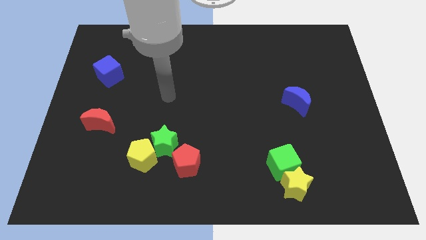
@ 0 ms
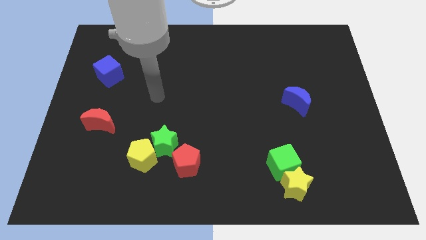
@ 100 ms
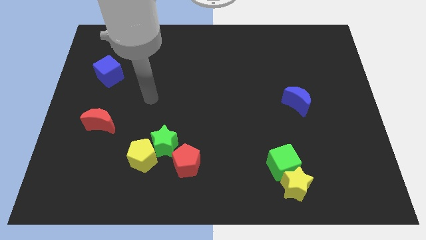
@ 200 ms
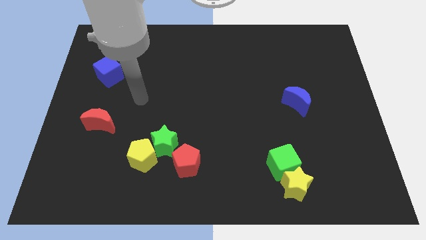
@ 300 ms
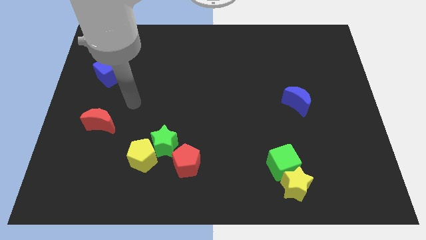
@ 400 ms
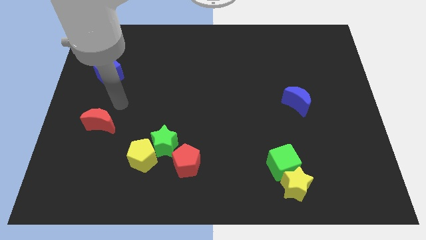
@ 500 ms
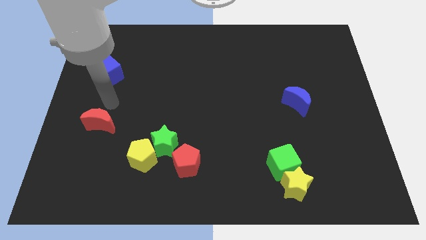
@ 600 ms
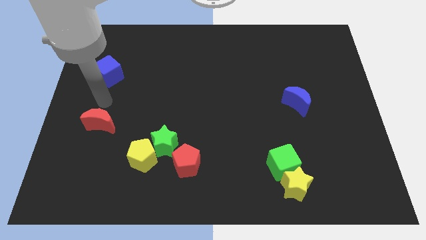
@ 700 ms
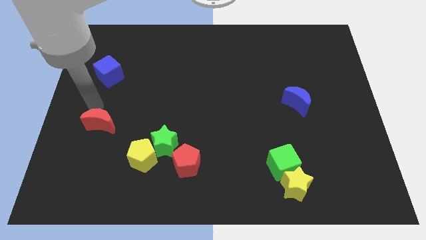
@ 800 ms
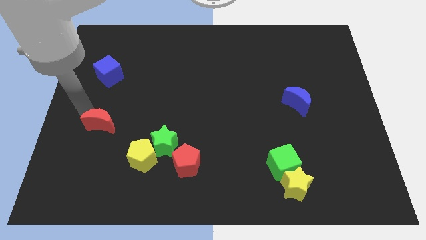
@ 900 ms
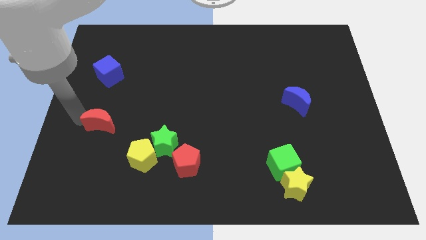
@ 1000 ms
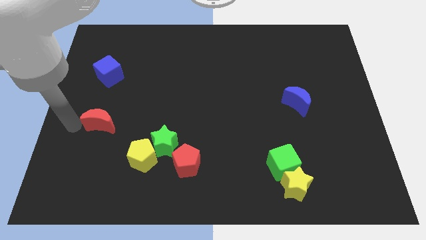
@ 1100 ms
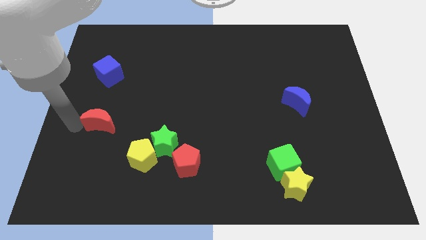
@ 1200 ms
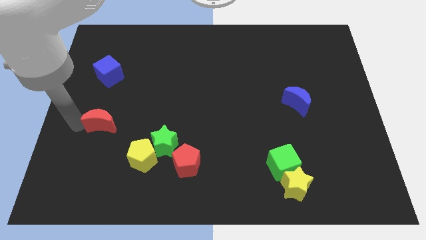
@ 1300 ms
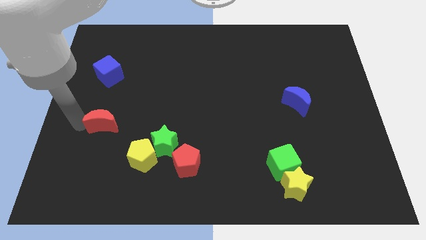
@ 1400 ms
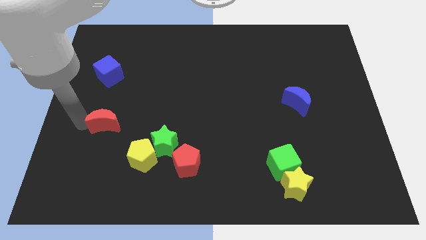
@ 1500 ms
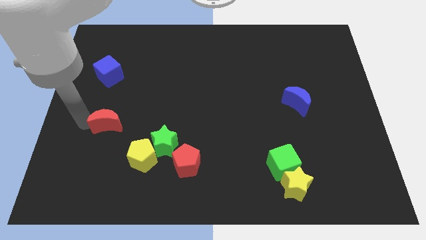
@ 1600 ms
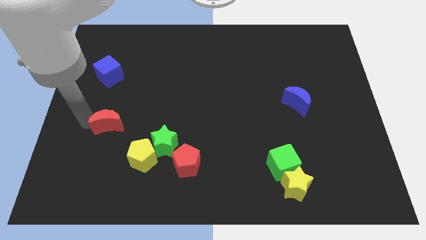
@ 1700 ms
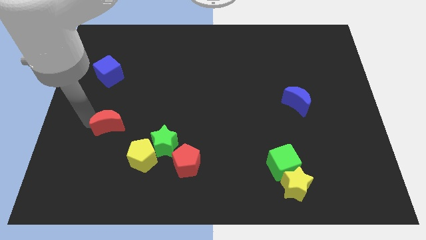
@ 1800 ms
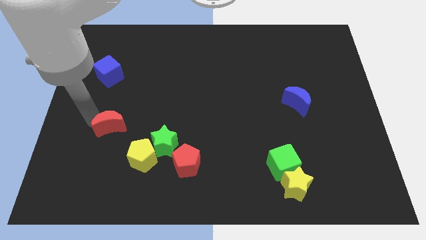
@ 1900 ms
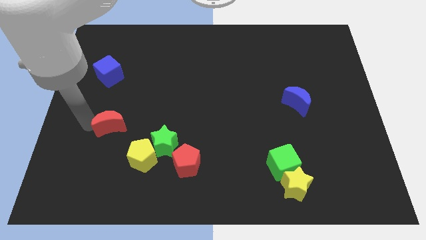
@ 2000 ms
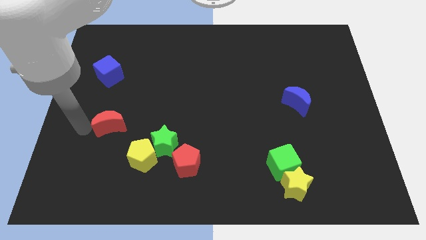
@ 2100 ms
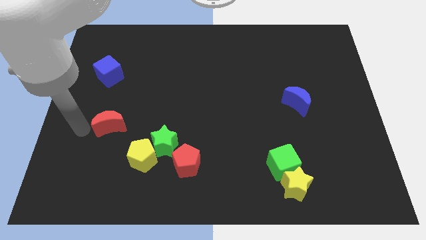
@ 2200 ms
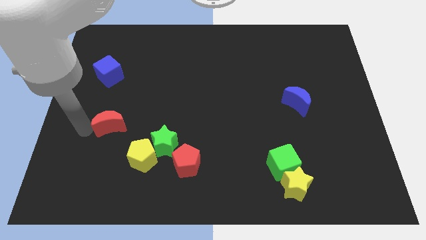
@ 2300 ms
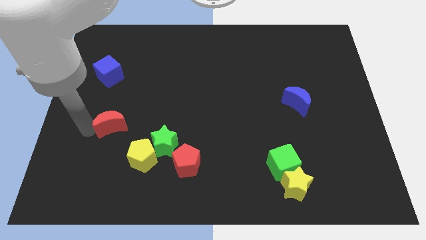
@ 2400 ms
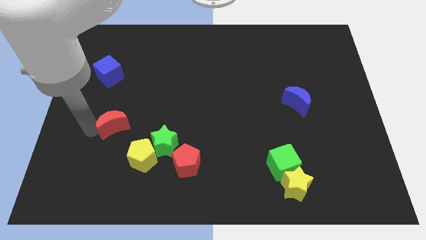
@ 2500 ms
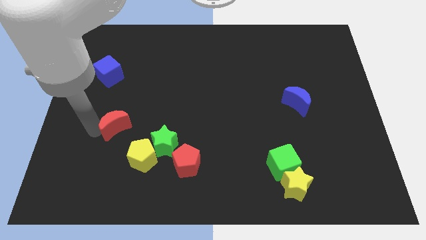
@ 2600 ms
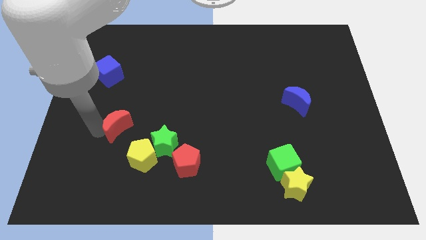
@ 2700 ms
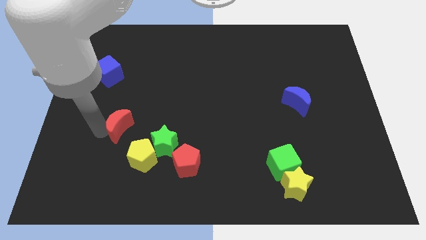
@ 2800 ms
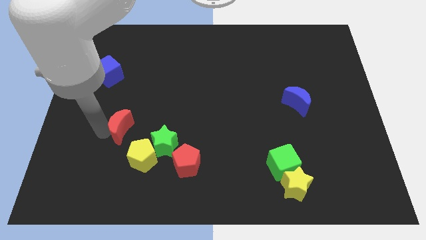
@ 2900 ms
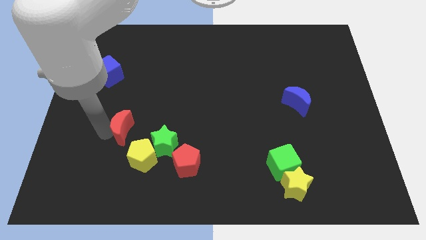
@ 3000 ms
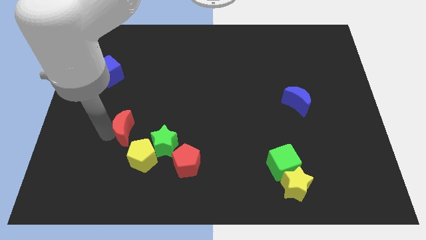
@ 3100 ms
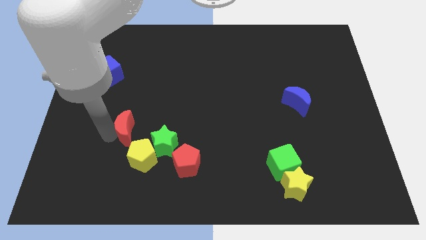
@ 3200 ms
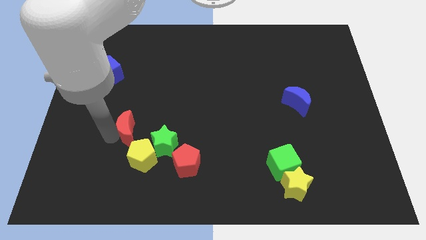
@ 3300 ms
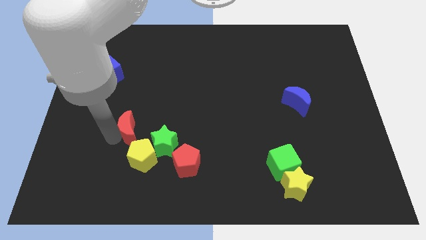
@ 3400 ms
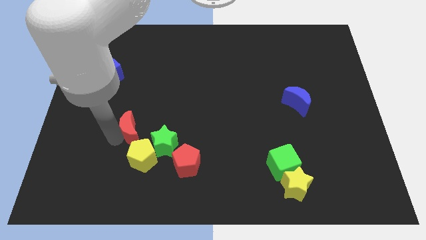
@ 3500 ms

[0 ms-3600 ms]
push the red moon to the right a bit

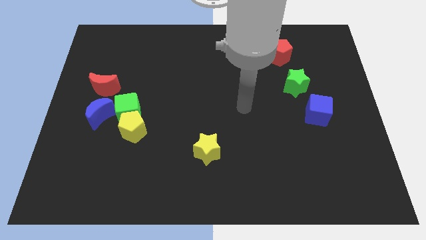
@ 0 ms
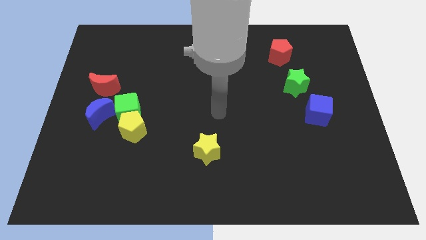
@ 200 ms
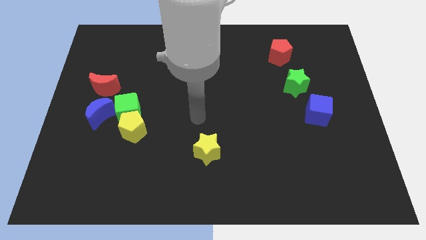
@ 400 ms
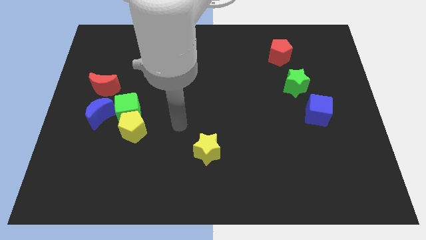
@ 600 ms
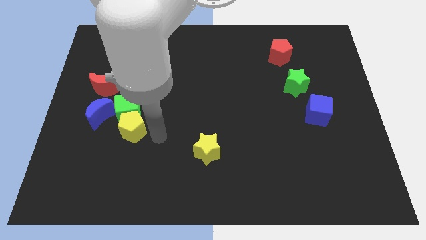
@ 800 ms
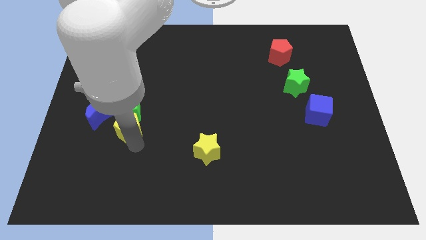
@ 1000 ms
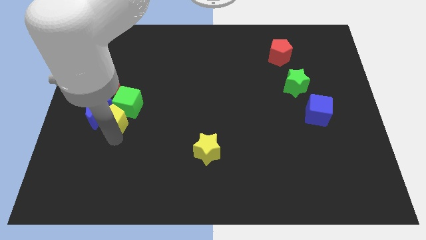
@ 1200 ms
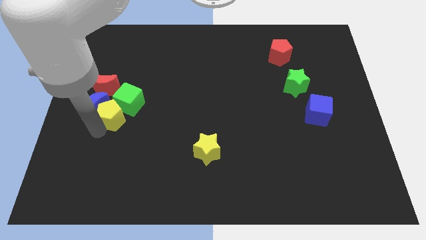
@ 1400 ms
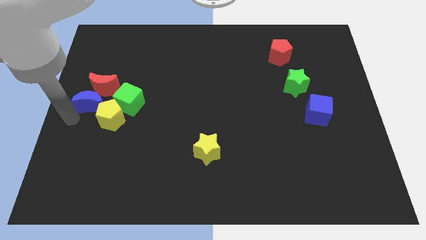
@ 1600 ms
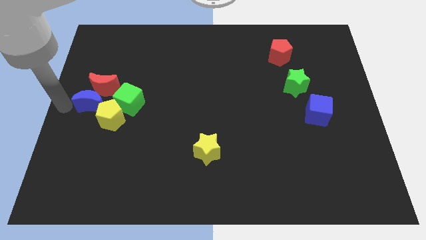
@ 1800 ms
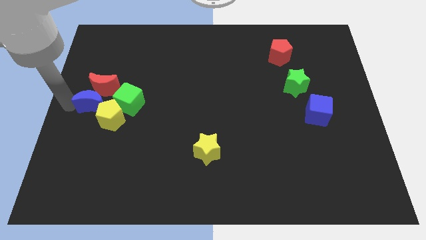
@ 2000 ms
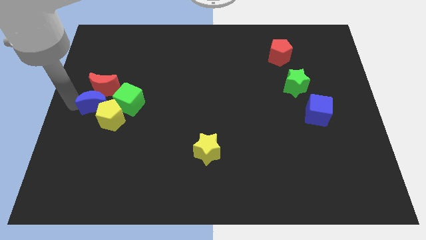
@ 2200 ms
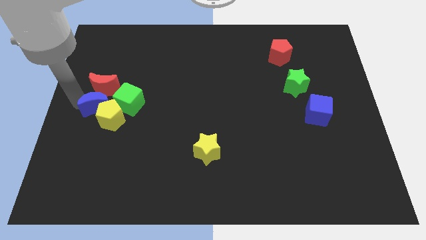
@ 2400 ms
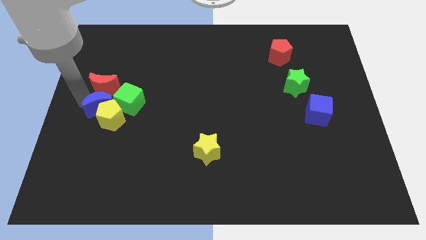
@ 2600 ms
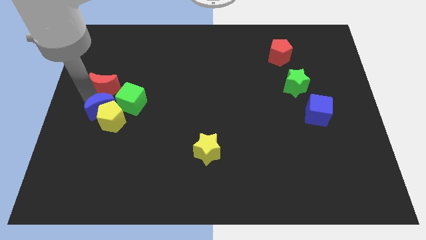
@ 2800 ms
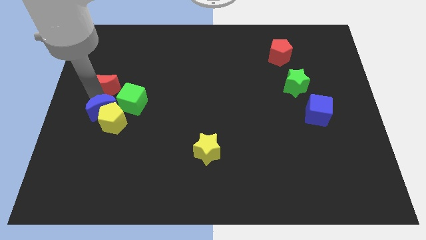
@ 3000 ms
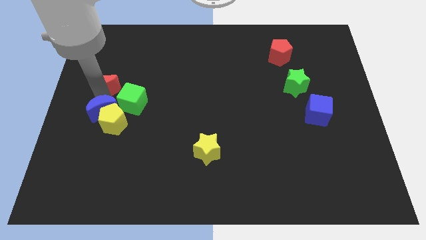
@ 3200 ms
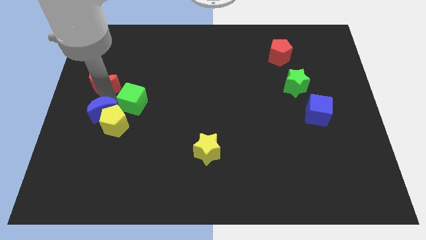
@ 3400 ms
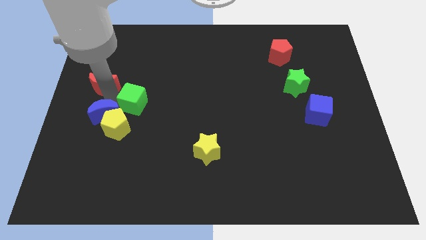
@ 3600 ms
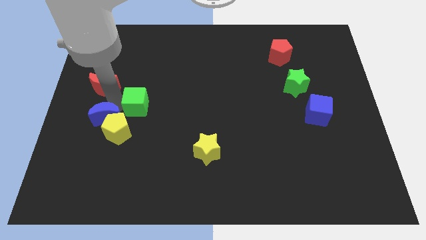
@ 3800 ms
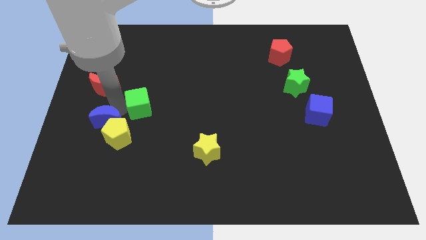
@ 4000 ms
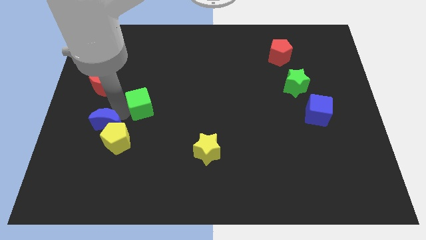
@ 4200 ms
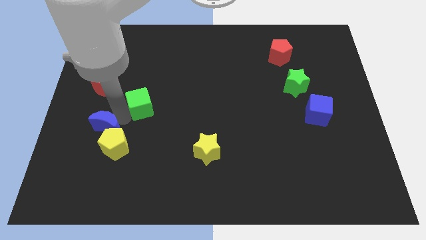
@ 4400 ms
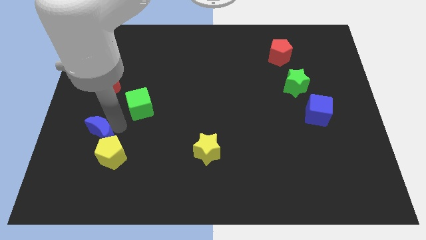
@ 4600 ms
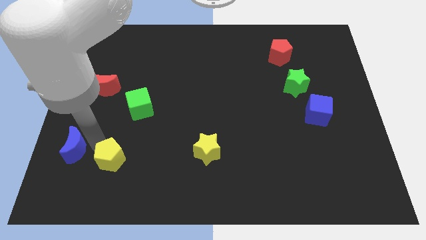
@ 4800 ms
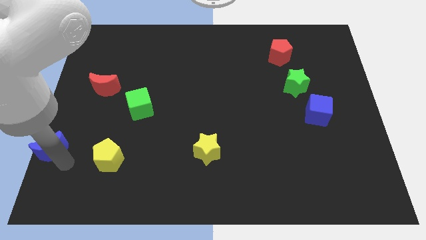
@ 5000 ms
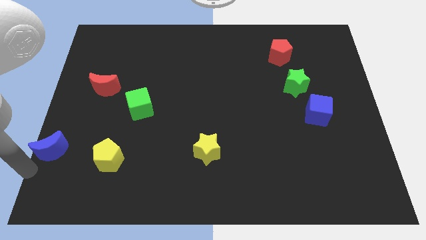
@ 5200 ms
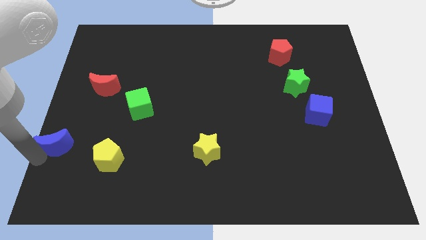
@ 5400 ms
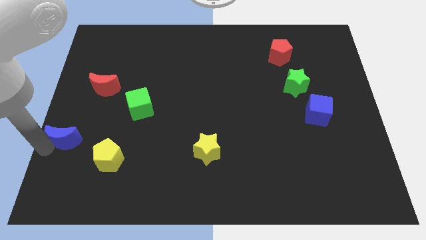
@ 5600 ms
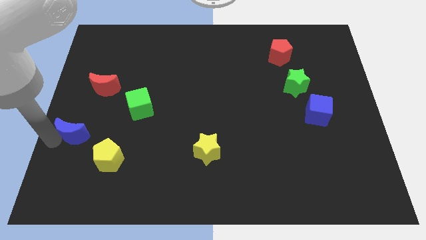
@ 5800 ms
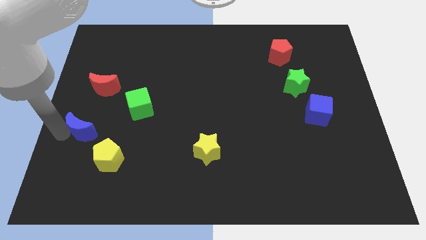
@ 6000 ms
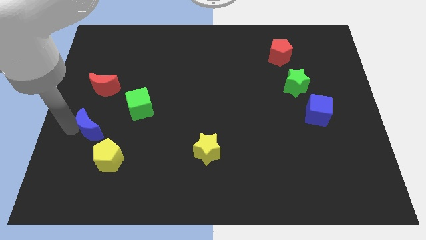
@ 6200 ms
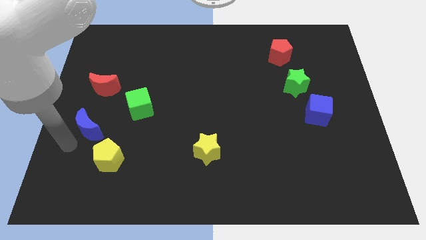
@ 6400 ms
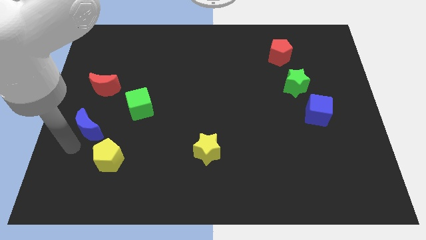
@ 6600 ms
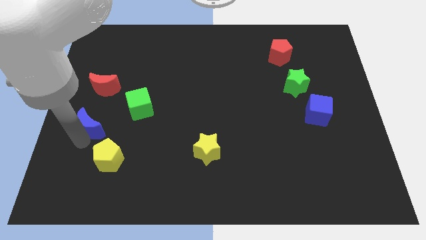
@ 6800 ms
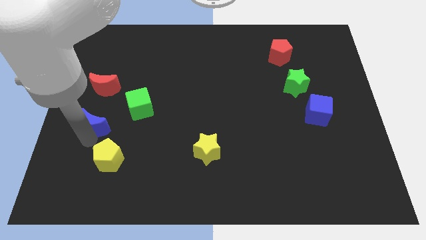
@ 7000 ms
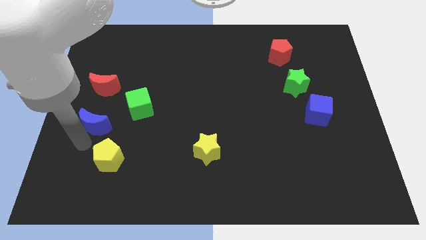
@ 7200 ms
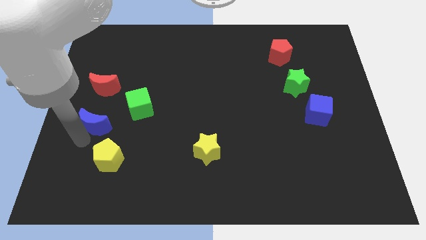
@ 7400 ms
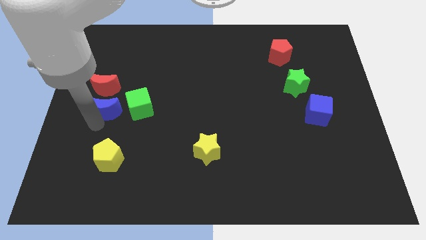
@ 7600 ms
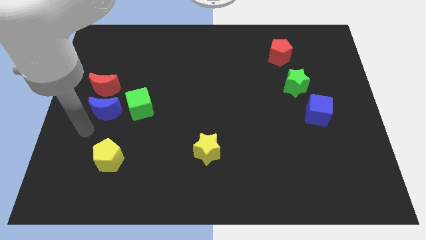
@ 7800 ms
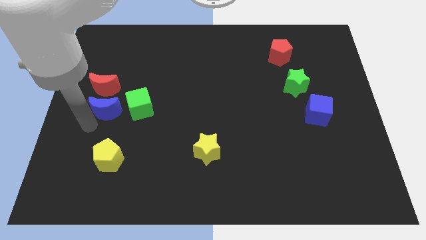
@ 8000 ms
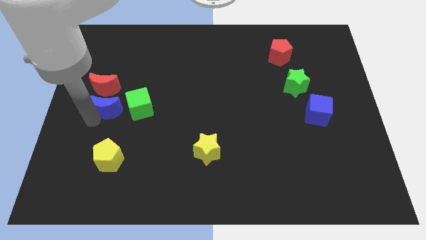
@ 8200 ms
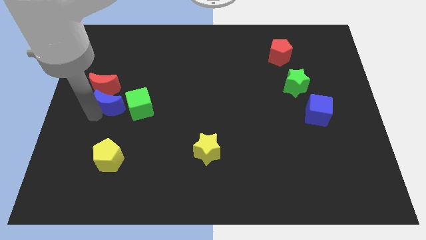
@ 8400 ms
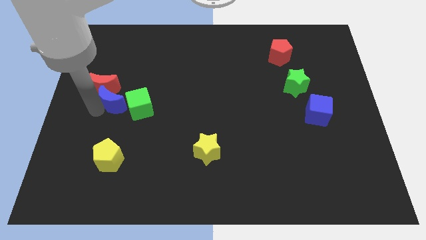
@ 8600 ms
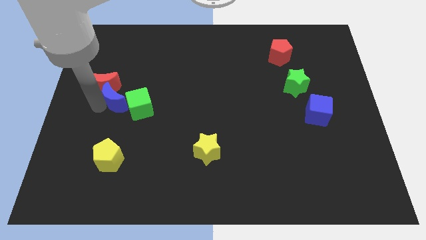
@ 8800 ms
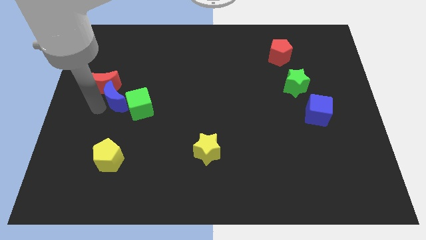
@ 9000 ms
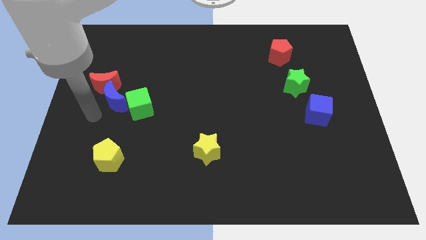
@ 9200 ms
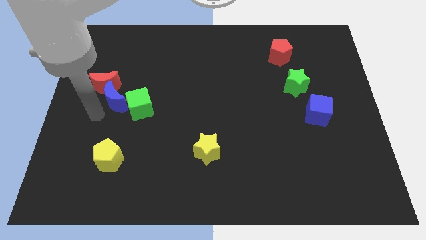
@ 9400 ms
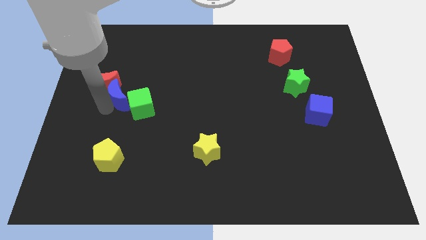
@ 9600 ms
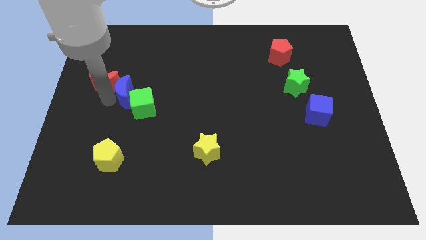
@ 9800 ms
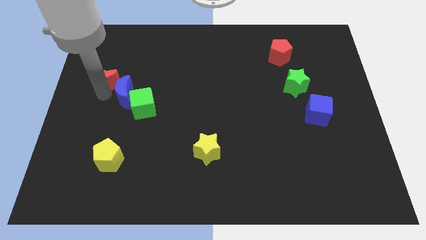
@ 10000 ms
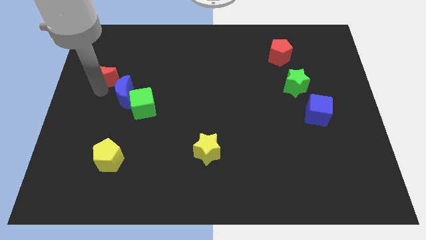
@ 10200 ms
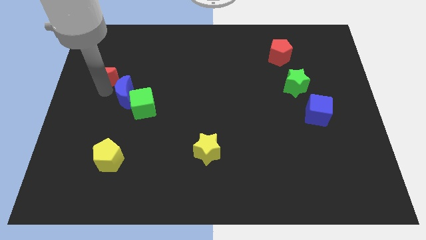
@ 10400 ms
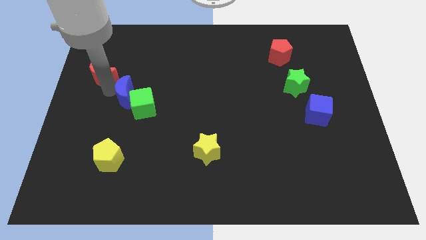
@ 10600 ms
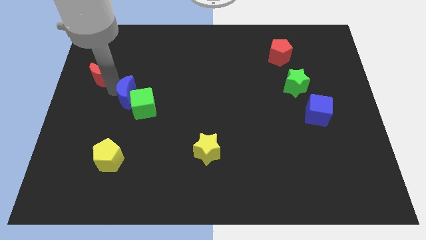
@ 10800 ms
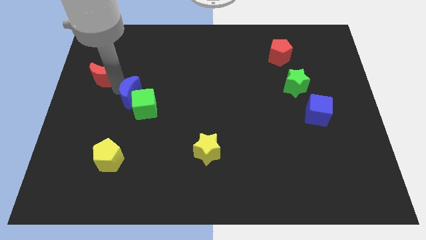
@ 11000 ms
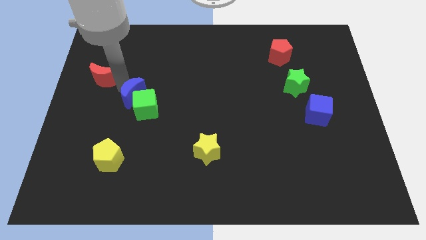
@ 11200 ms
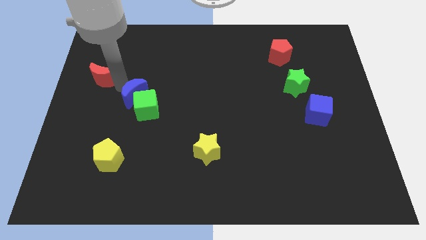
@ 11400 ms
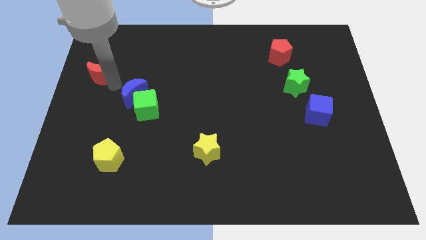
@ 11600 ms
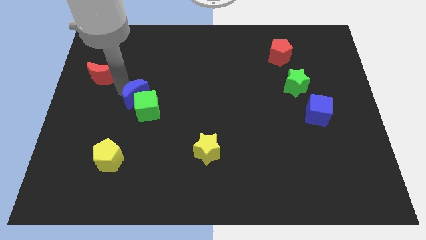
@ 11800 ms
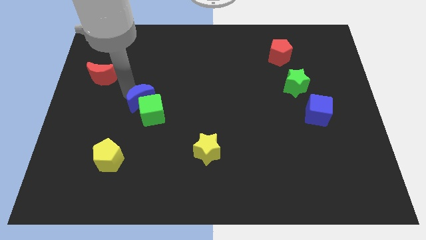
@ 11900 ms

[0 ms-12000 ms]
move the blue moon somewhat to the right
